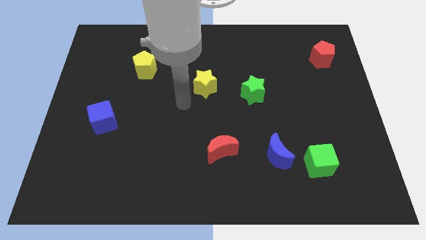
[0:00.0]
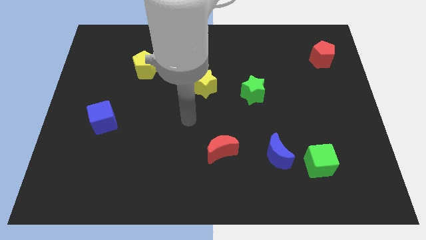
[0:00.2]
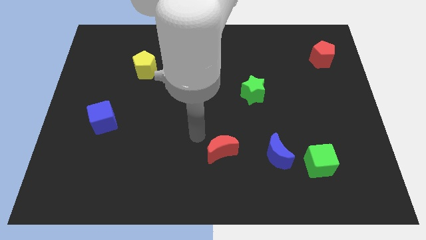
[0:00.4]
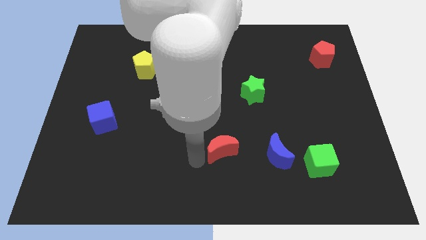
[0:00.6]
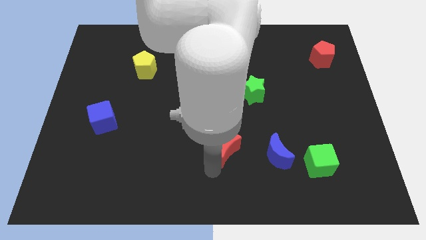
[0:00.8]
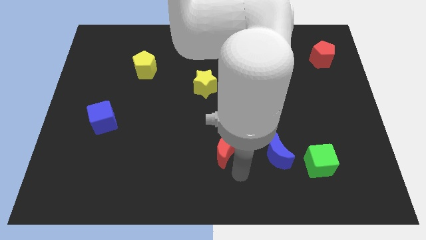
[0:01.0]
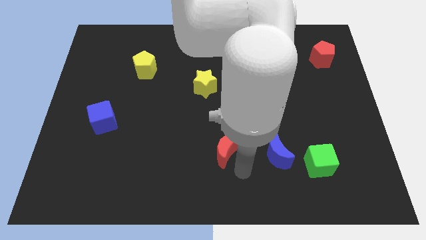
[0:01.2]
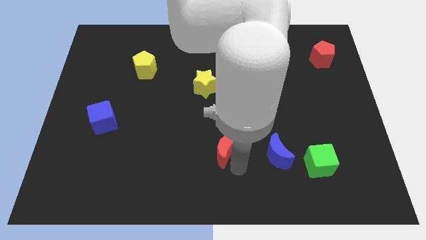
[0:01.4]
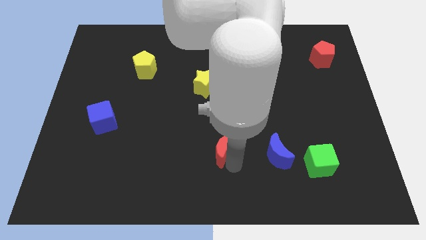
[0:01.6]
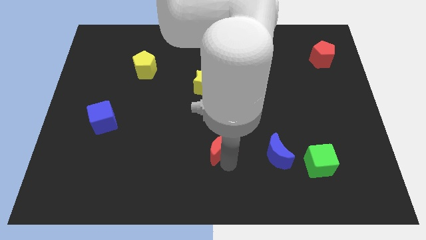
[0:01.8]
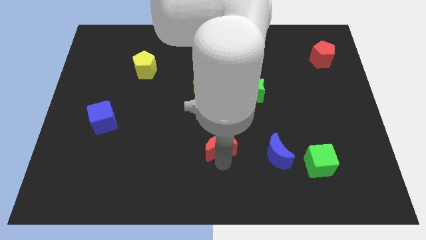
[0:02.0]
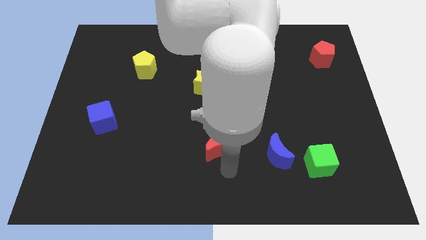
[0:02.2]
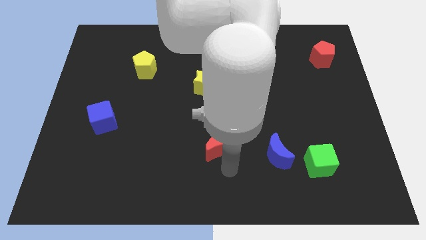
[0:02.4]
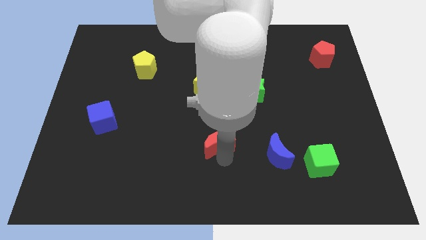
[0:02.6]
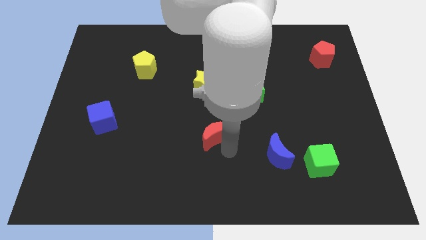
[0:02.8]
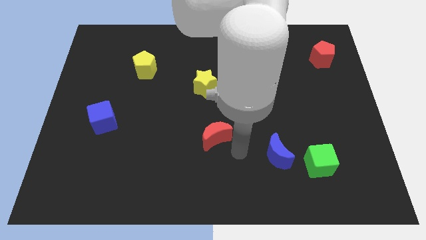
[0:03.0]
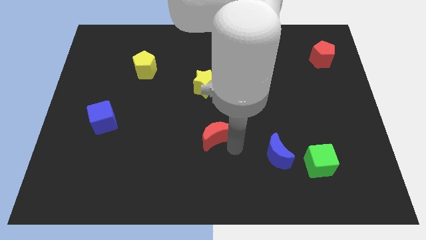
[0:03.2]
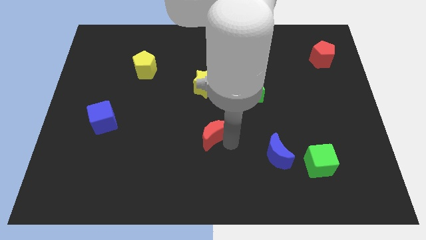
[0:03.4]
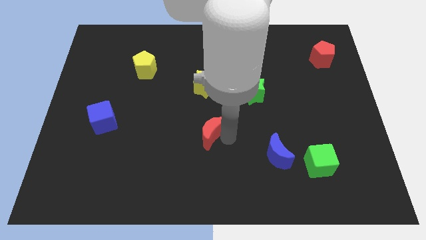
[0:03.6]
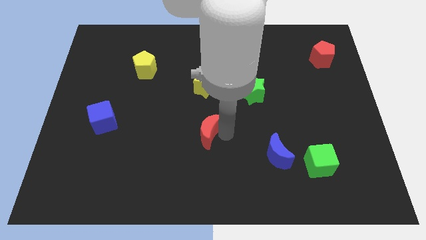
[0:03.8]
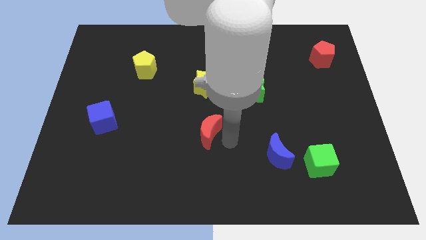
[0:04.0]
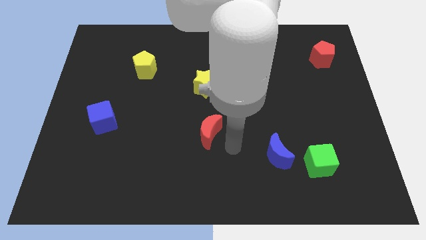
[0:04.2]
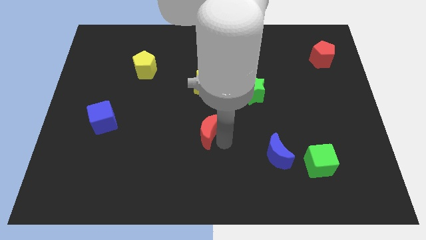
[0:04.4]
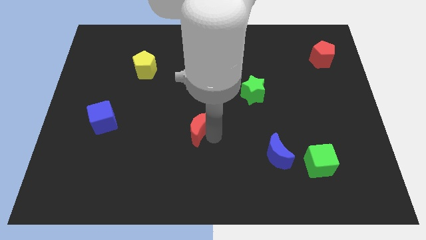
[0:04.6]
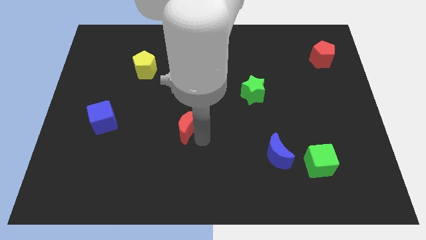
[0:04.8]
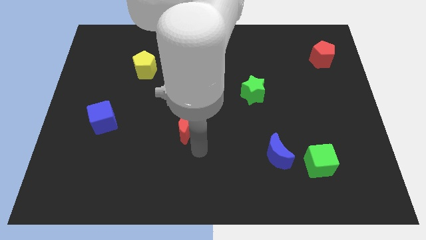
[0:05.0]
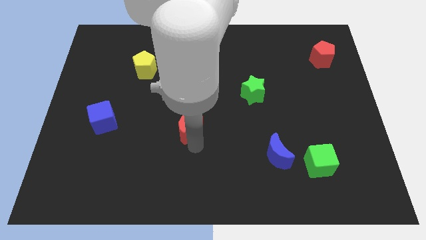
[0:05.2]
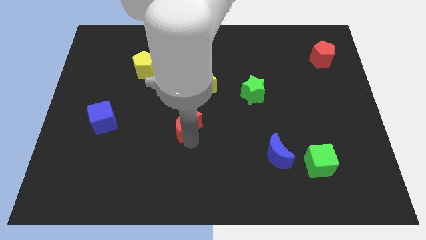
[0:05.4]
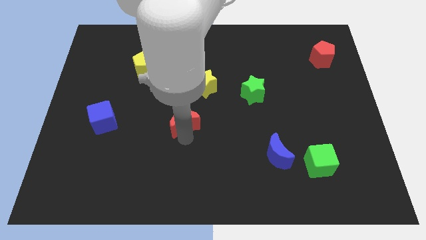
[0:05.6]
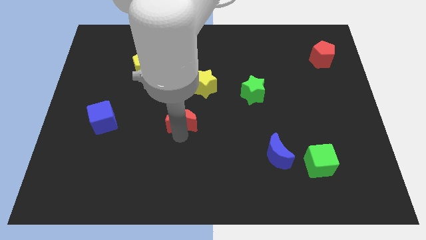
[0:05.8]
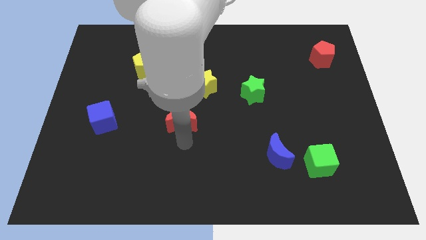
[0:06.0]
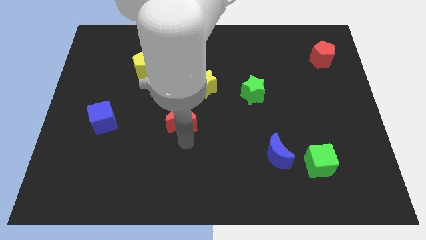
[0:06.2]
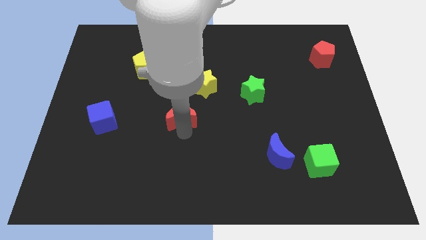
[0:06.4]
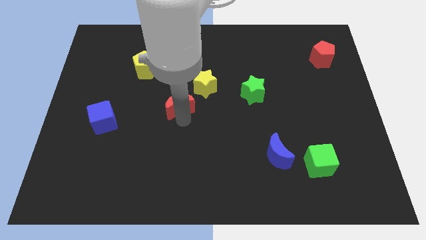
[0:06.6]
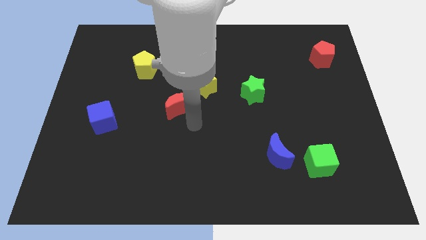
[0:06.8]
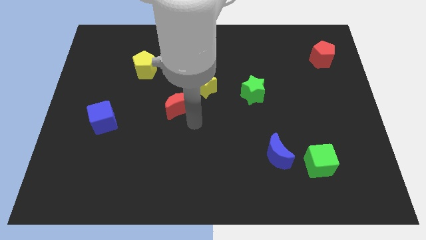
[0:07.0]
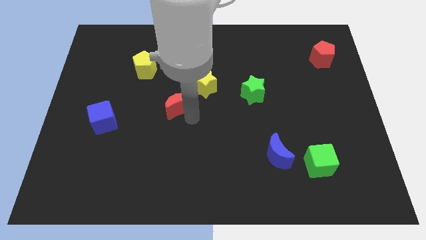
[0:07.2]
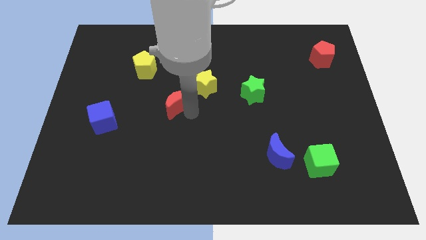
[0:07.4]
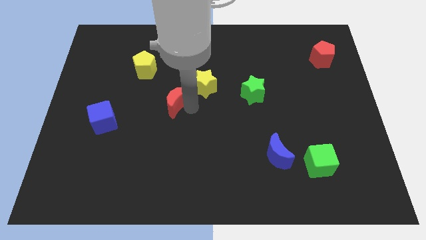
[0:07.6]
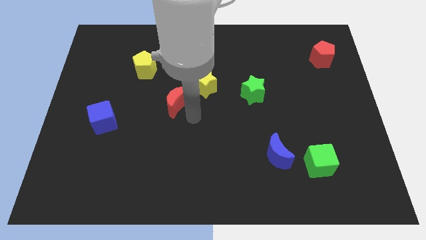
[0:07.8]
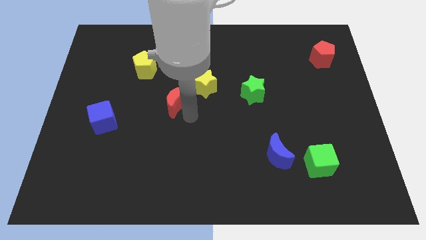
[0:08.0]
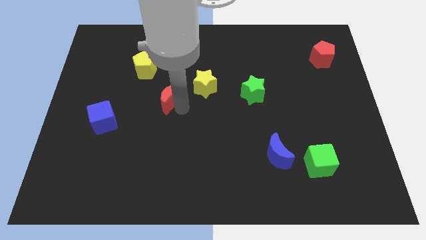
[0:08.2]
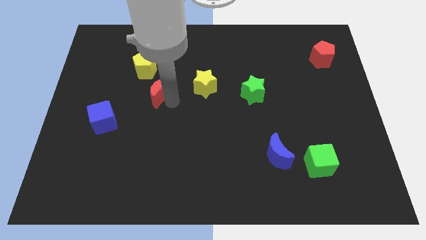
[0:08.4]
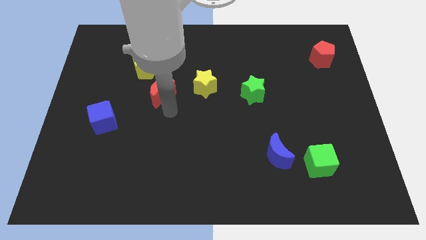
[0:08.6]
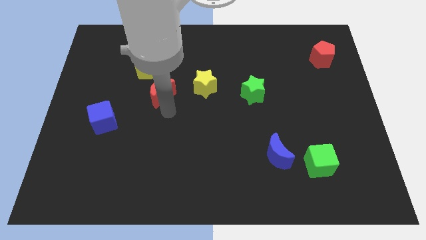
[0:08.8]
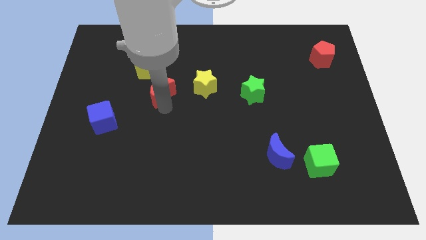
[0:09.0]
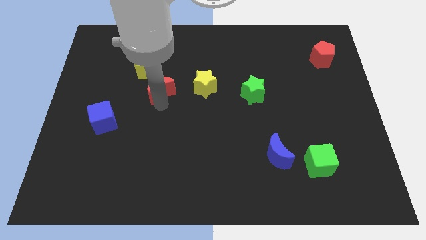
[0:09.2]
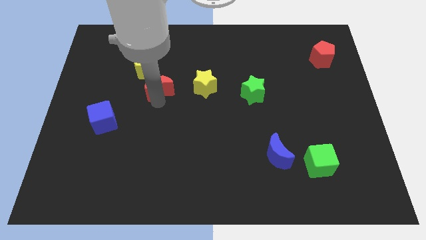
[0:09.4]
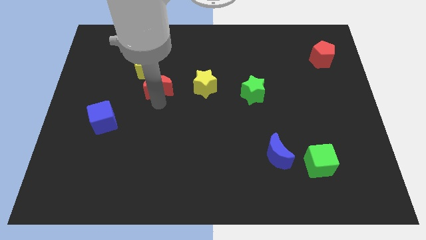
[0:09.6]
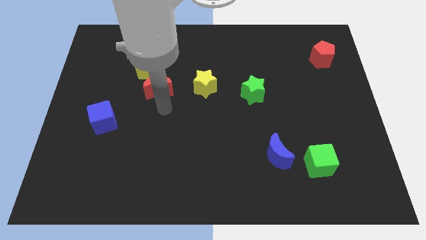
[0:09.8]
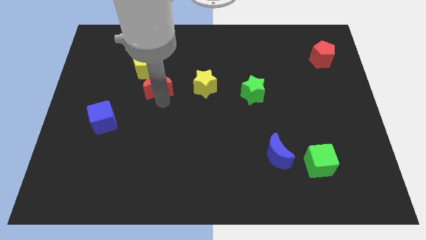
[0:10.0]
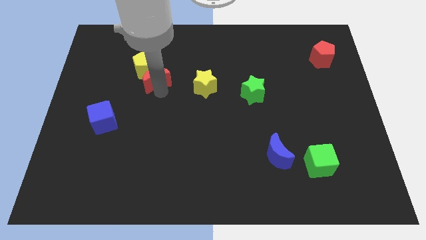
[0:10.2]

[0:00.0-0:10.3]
put the red moon close to the yellow pentagon

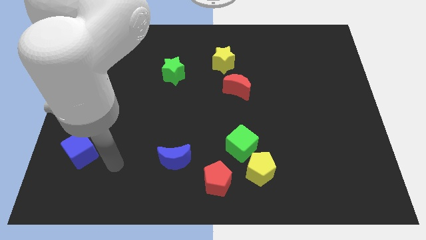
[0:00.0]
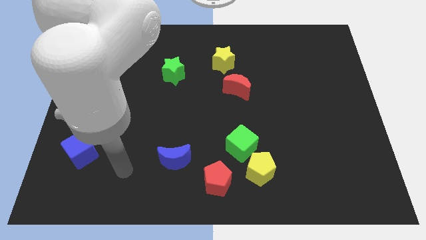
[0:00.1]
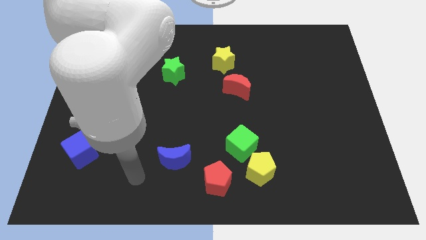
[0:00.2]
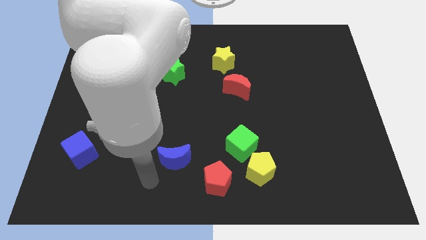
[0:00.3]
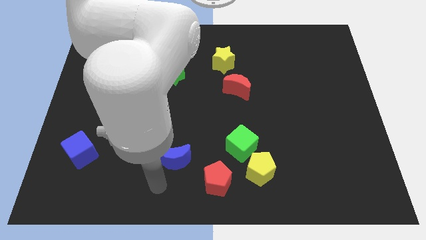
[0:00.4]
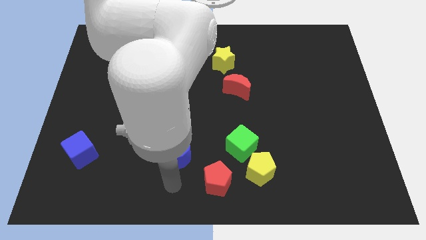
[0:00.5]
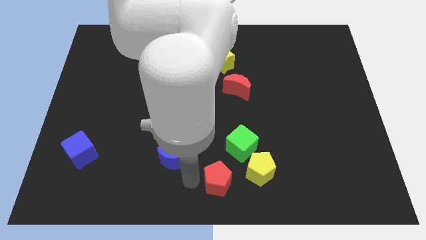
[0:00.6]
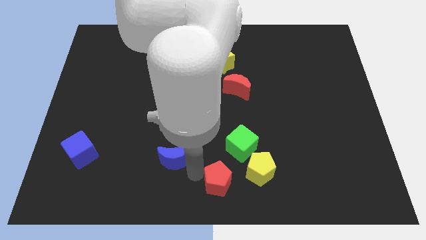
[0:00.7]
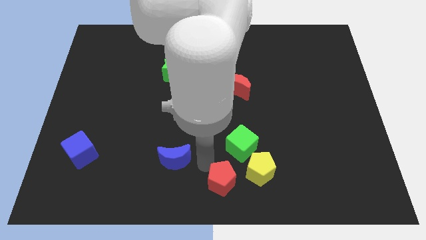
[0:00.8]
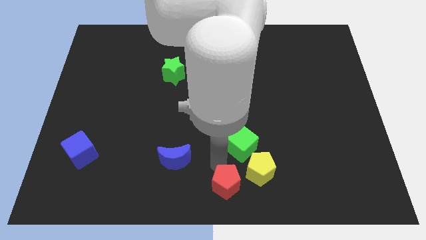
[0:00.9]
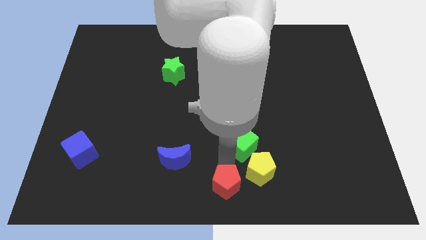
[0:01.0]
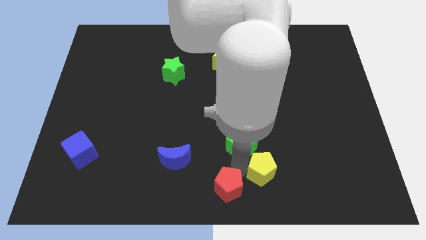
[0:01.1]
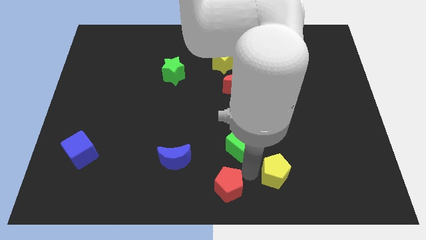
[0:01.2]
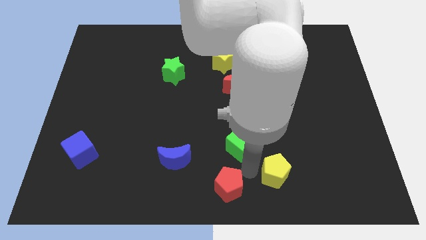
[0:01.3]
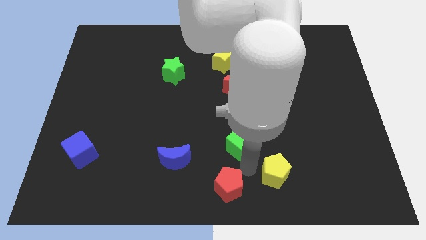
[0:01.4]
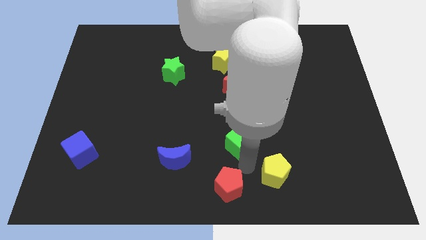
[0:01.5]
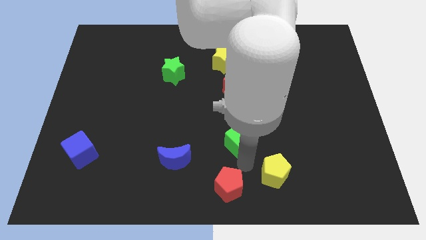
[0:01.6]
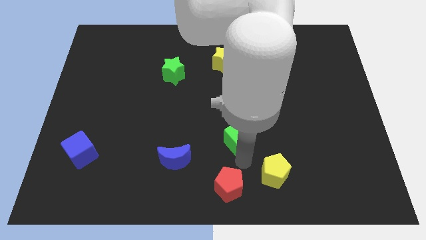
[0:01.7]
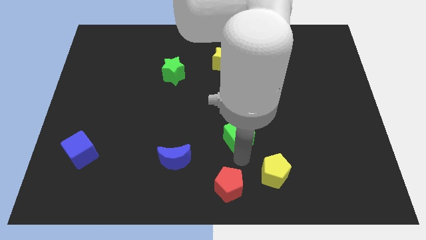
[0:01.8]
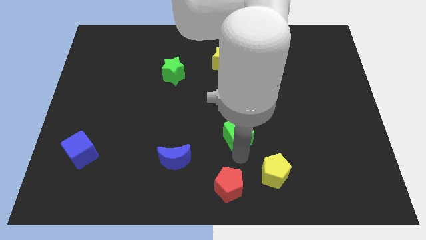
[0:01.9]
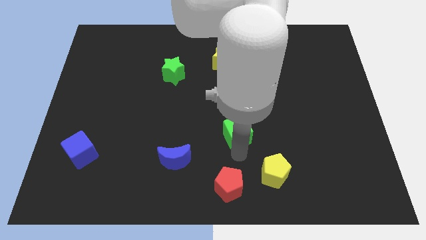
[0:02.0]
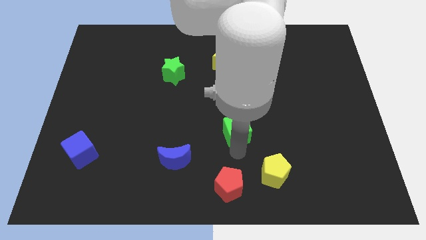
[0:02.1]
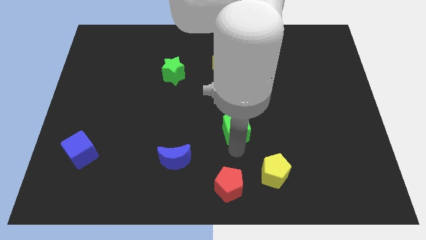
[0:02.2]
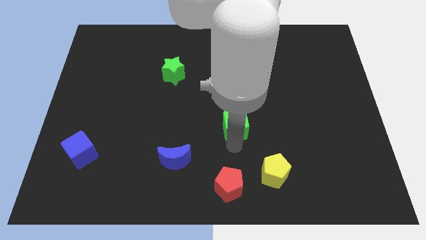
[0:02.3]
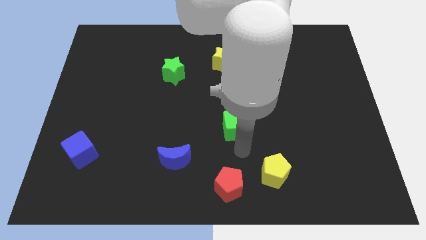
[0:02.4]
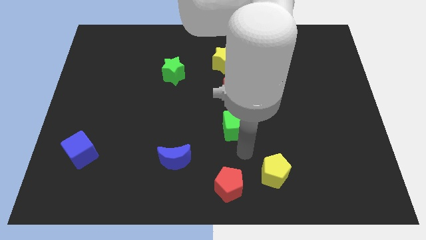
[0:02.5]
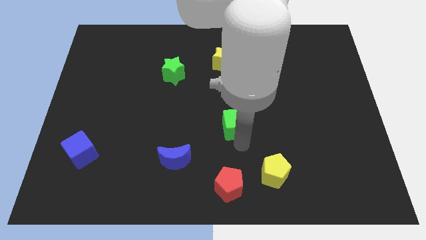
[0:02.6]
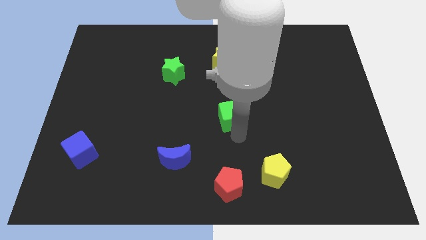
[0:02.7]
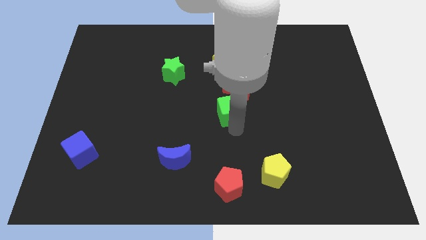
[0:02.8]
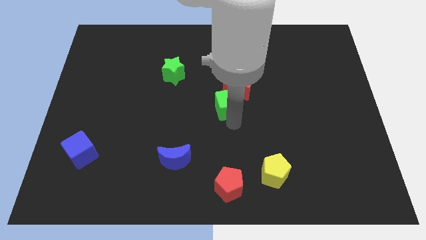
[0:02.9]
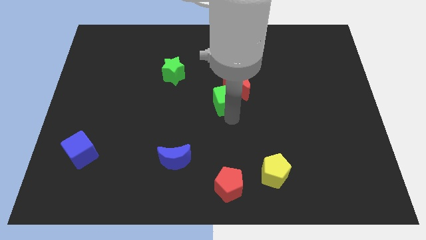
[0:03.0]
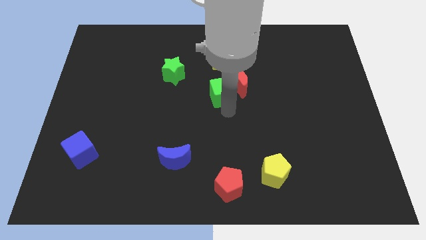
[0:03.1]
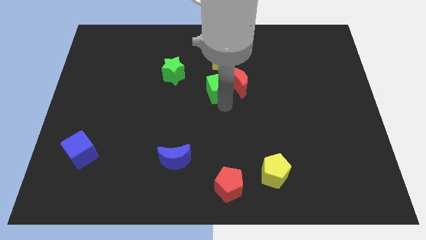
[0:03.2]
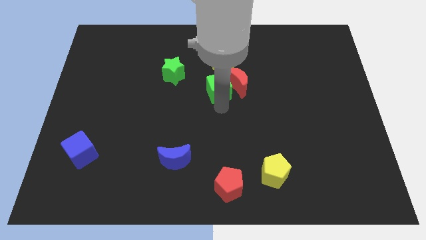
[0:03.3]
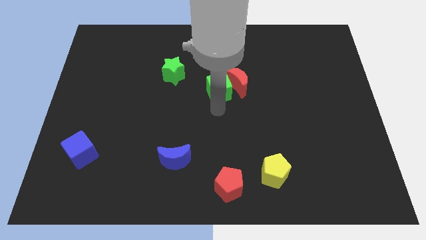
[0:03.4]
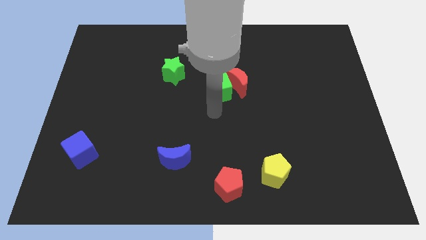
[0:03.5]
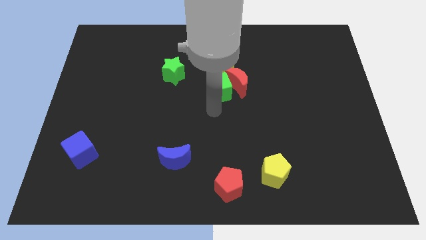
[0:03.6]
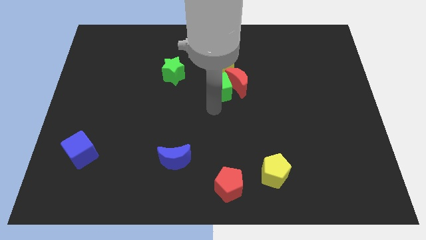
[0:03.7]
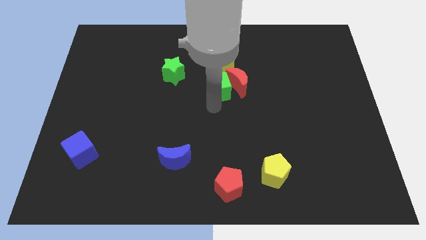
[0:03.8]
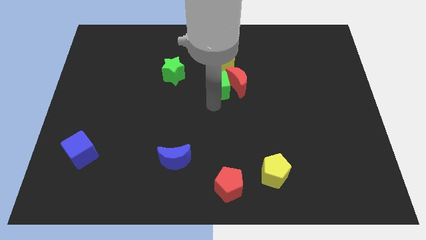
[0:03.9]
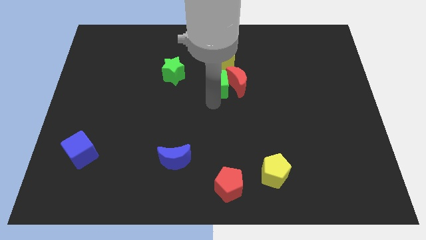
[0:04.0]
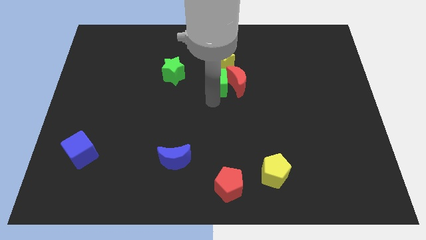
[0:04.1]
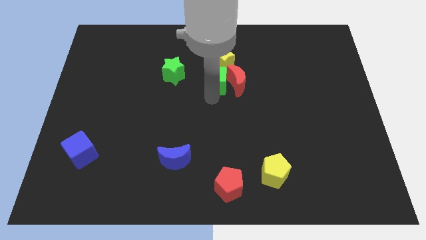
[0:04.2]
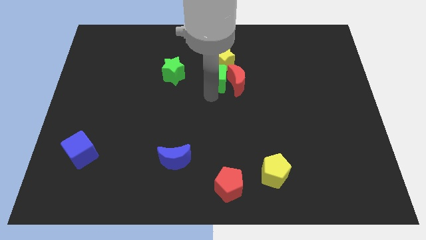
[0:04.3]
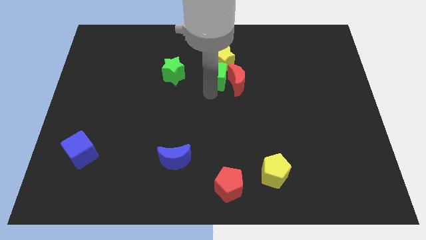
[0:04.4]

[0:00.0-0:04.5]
push the green cube towards the yellow star
